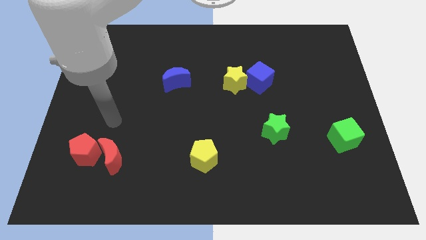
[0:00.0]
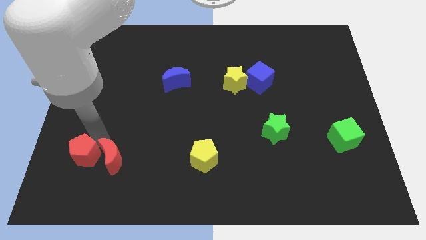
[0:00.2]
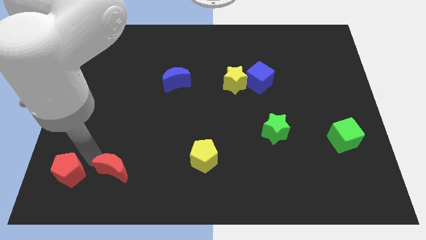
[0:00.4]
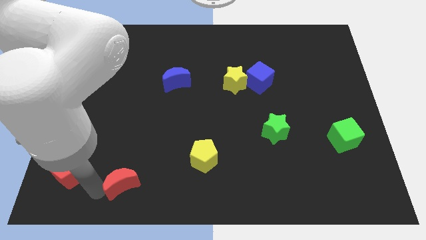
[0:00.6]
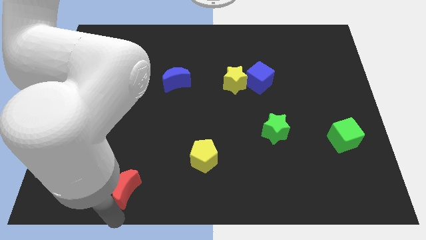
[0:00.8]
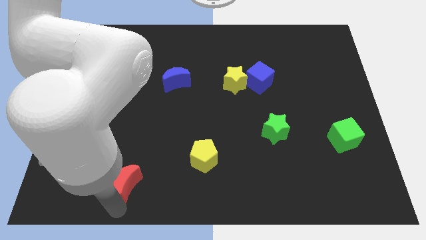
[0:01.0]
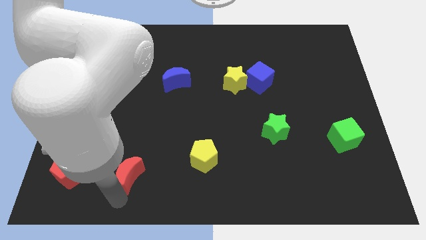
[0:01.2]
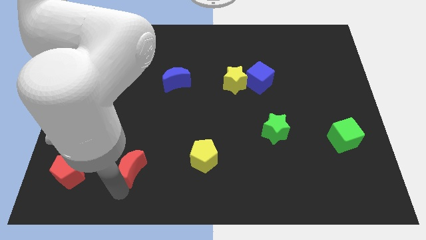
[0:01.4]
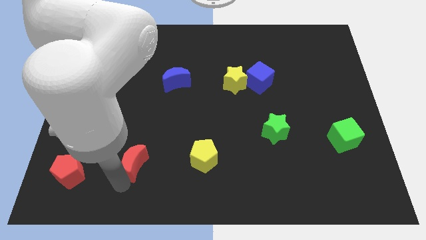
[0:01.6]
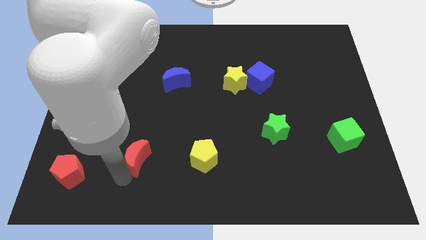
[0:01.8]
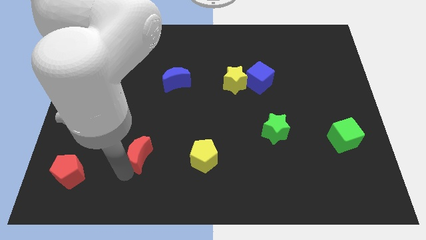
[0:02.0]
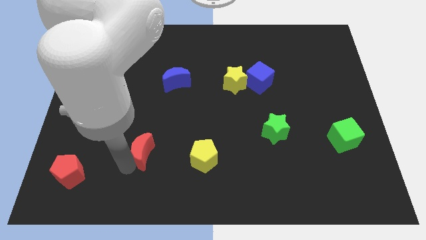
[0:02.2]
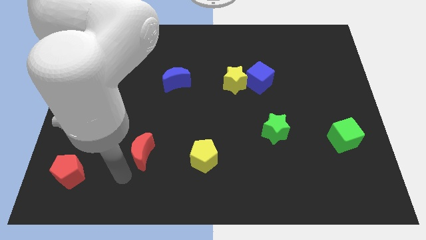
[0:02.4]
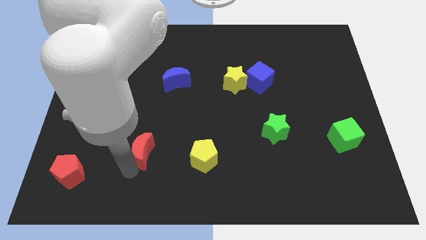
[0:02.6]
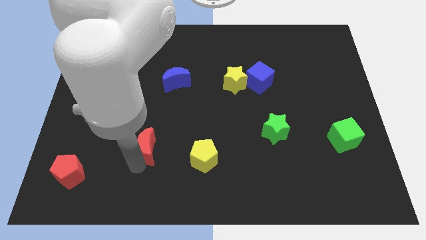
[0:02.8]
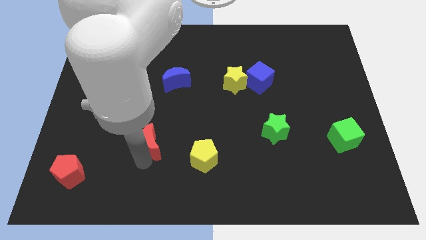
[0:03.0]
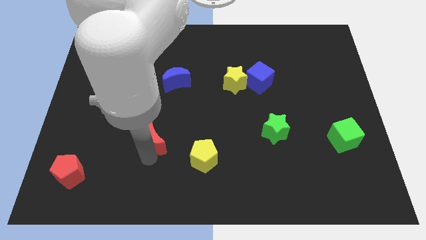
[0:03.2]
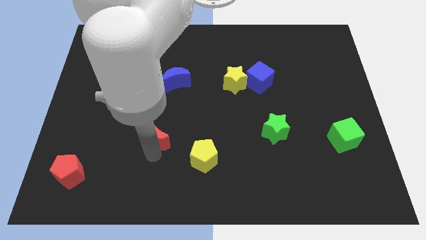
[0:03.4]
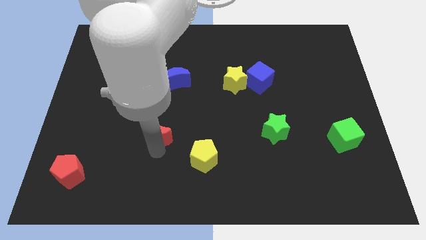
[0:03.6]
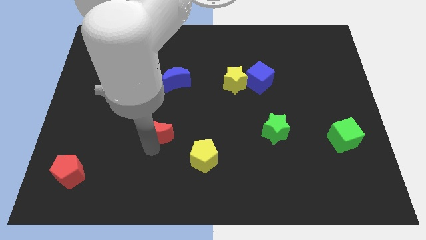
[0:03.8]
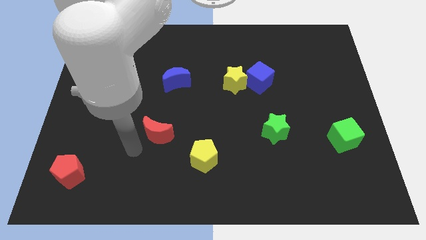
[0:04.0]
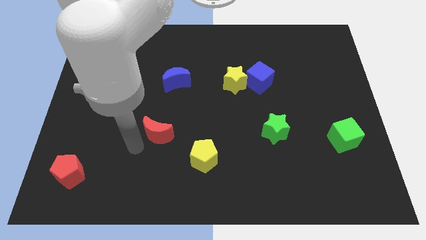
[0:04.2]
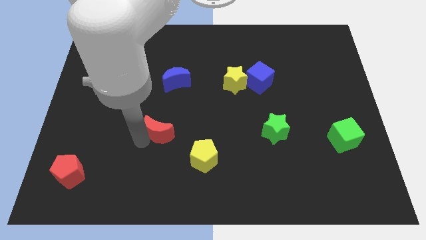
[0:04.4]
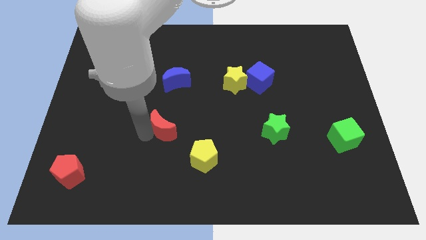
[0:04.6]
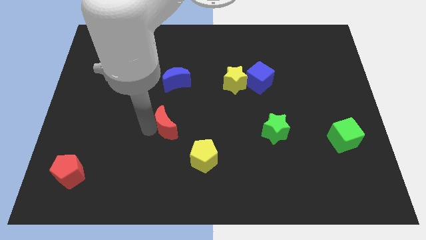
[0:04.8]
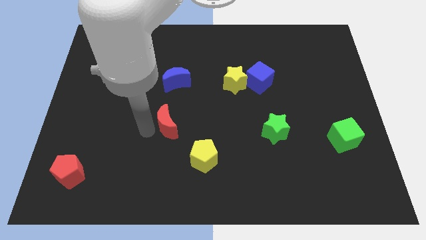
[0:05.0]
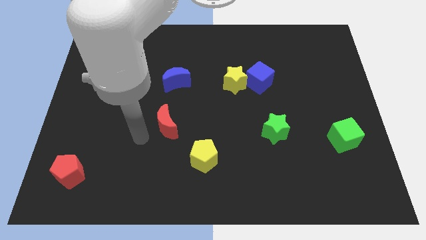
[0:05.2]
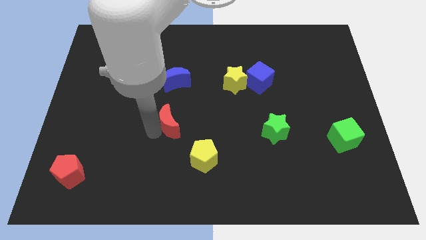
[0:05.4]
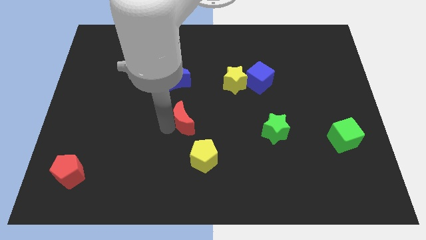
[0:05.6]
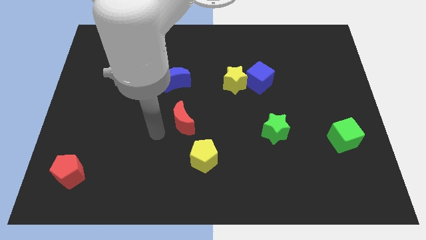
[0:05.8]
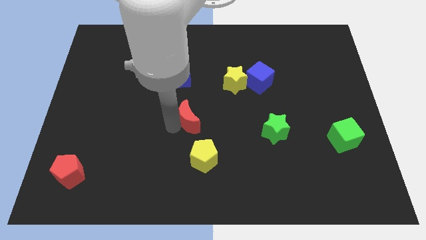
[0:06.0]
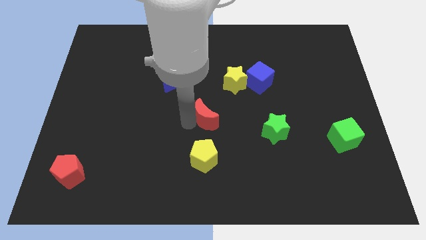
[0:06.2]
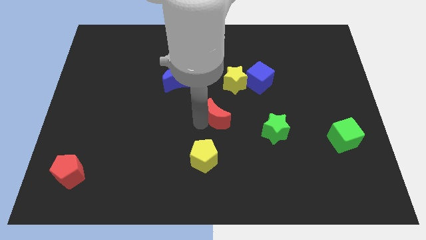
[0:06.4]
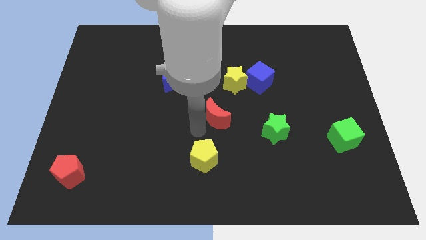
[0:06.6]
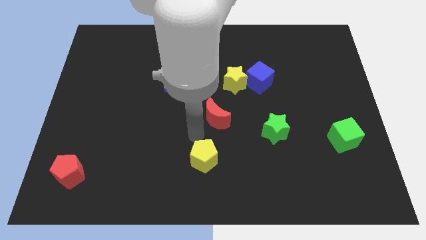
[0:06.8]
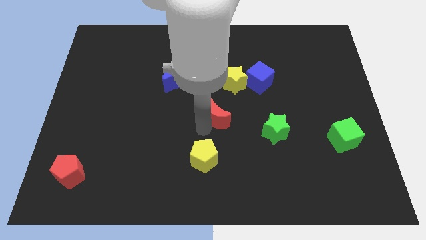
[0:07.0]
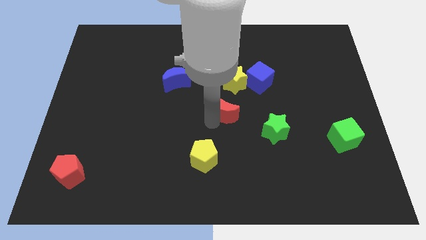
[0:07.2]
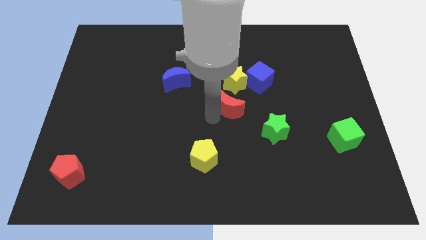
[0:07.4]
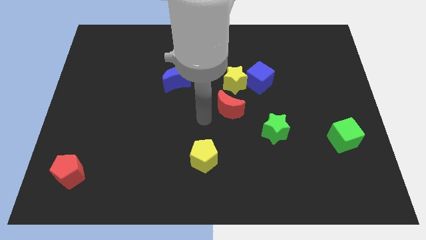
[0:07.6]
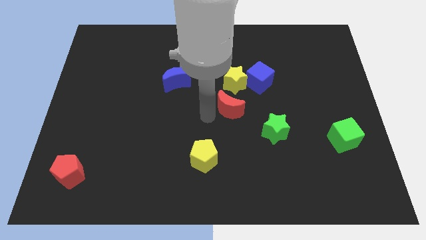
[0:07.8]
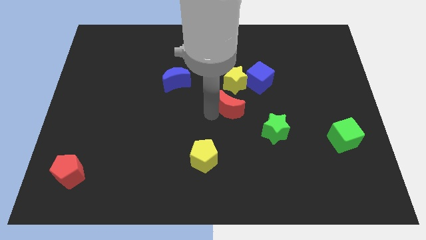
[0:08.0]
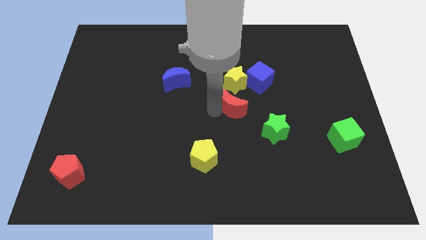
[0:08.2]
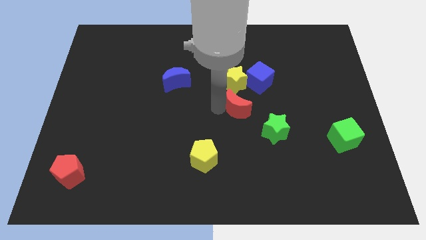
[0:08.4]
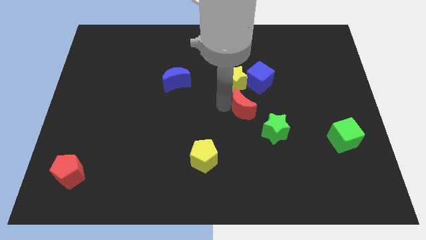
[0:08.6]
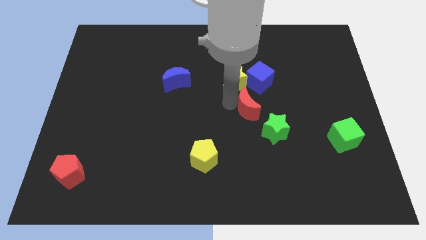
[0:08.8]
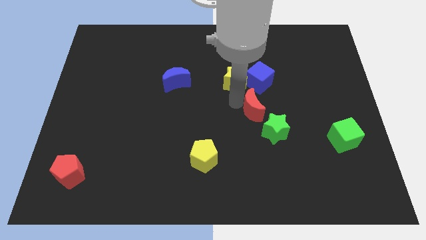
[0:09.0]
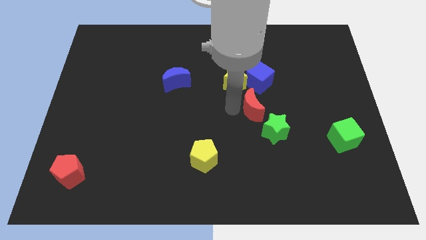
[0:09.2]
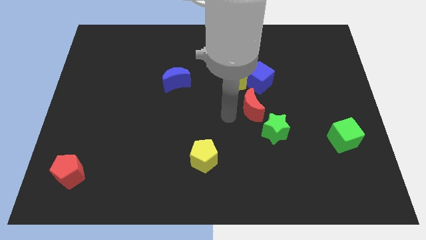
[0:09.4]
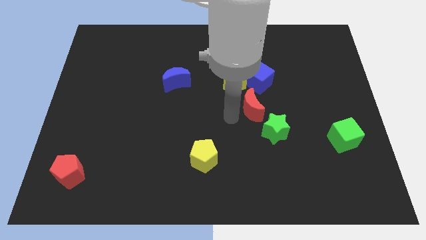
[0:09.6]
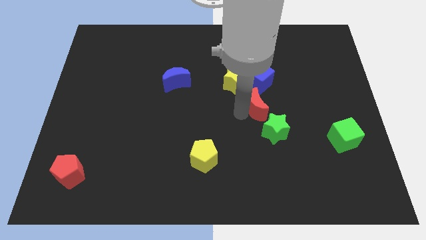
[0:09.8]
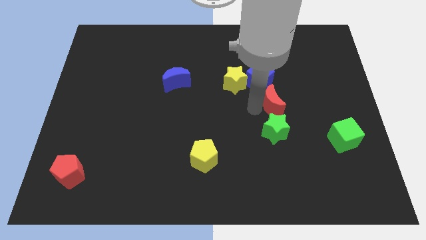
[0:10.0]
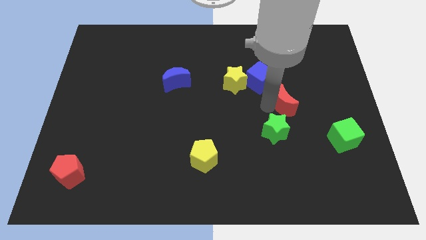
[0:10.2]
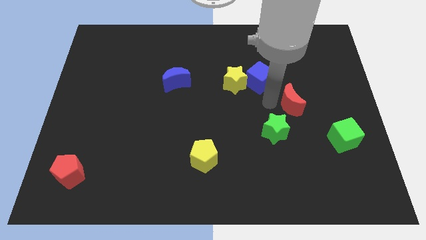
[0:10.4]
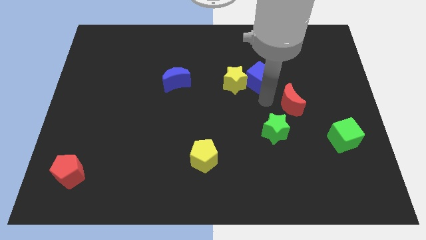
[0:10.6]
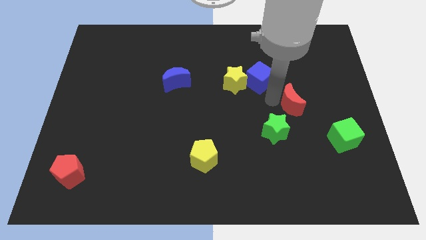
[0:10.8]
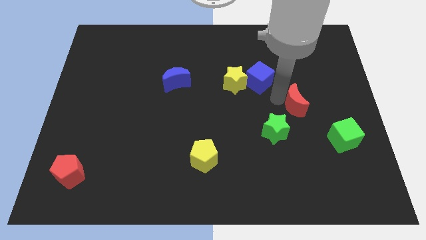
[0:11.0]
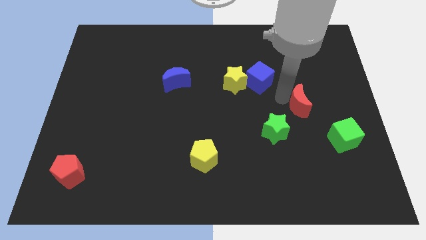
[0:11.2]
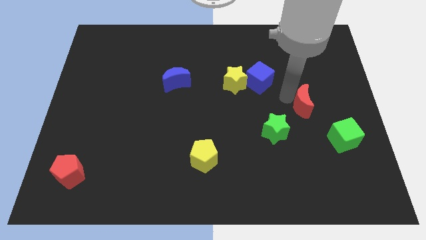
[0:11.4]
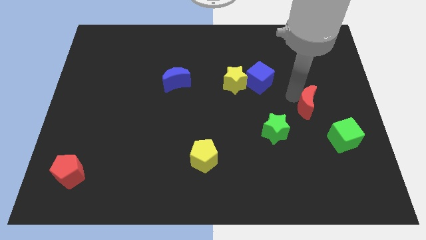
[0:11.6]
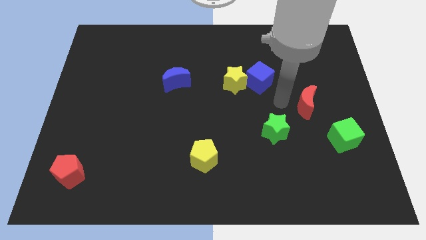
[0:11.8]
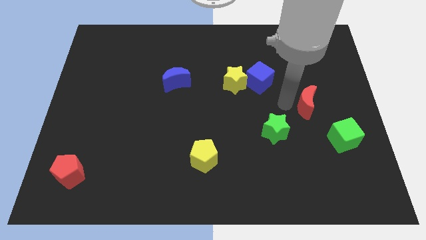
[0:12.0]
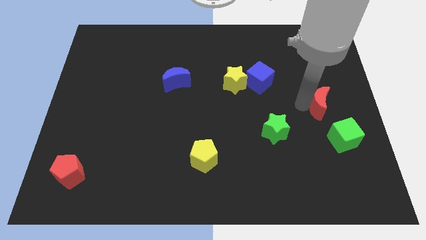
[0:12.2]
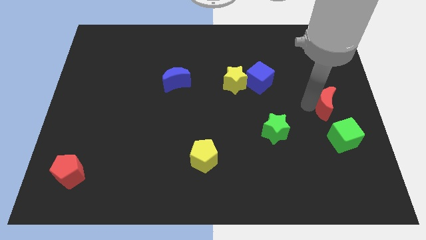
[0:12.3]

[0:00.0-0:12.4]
slide the red moon to the right side
